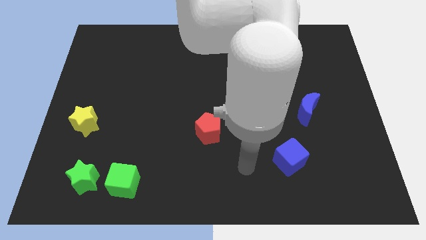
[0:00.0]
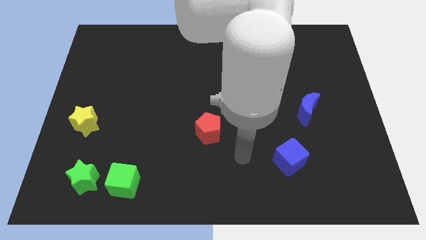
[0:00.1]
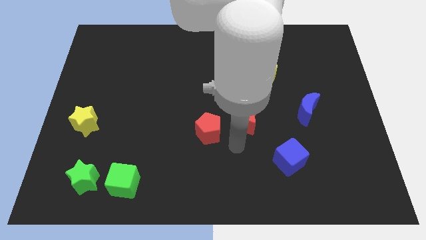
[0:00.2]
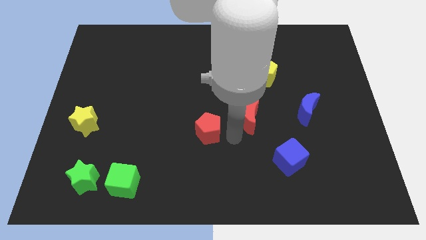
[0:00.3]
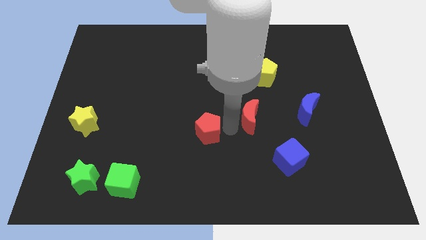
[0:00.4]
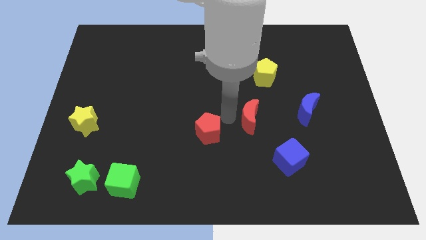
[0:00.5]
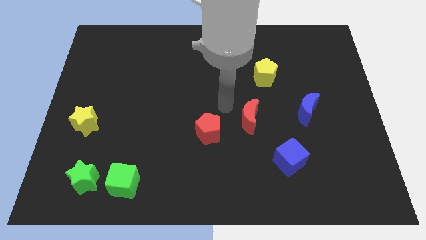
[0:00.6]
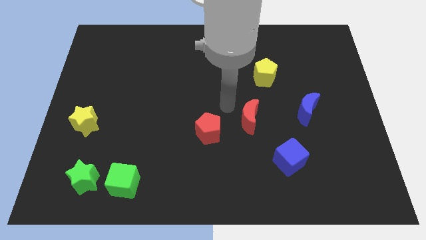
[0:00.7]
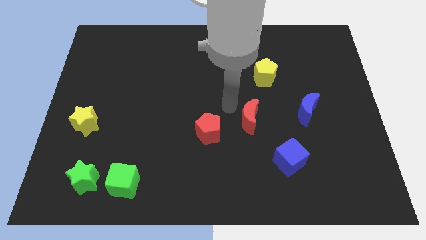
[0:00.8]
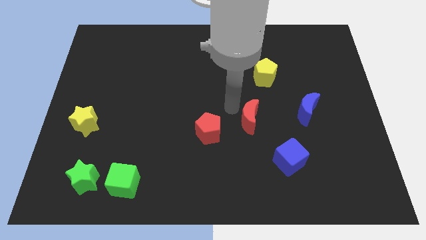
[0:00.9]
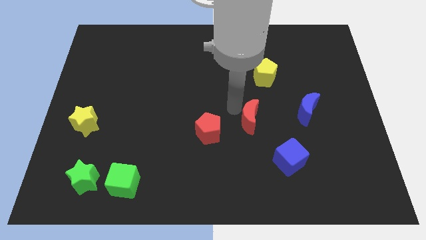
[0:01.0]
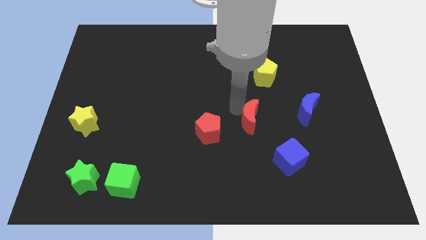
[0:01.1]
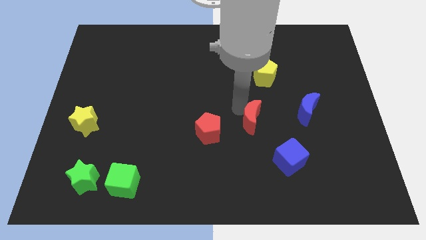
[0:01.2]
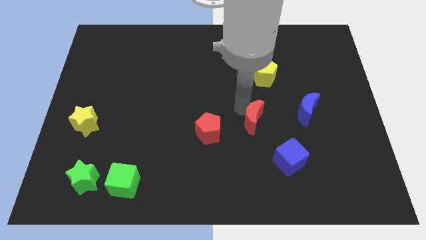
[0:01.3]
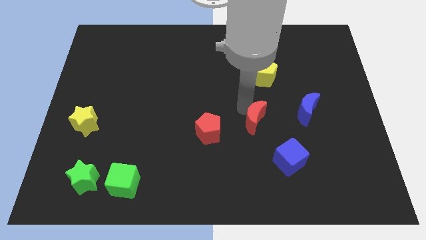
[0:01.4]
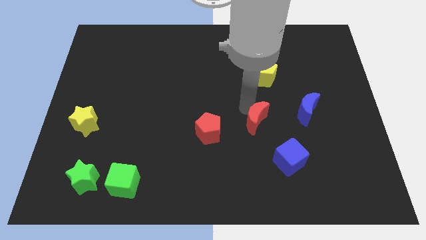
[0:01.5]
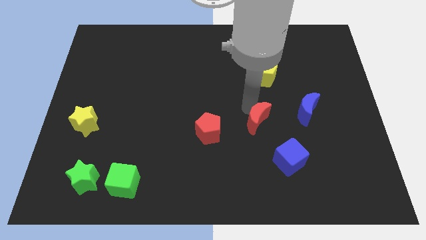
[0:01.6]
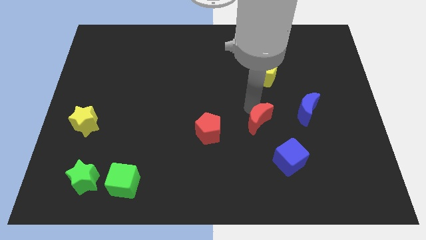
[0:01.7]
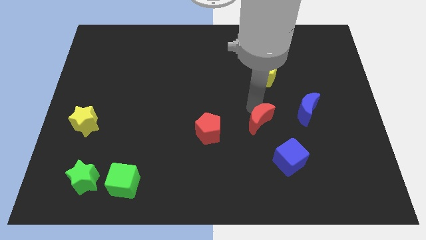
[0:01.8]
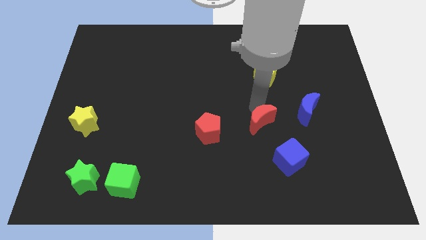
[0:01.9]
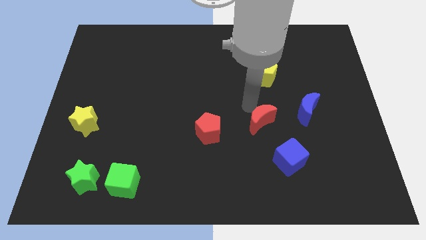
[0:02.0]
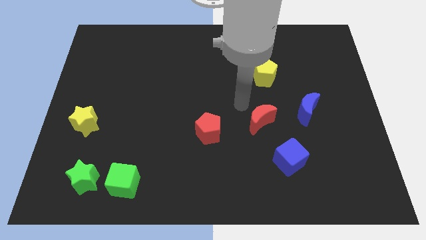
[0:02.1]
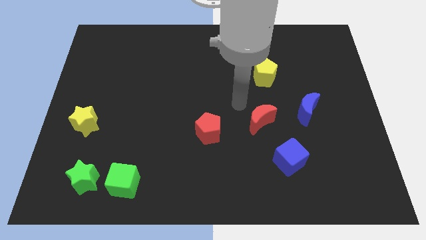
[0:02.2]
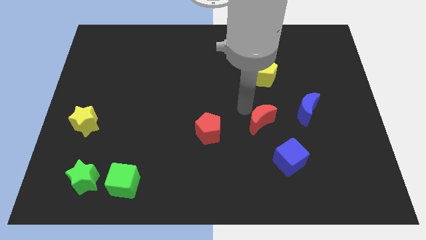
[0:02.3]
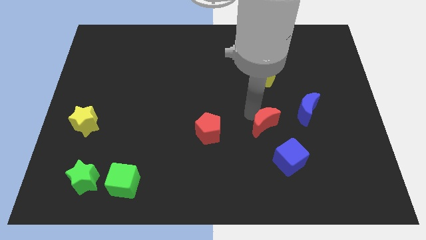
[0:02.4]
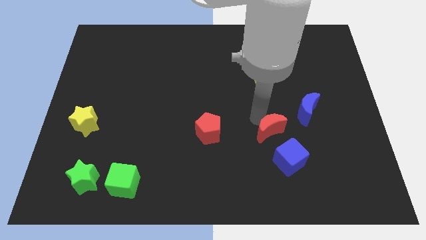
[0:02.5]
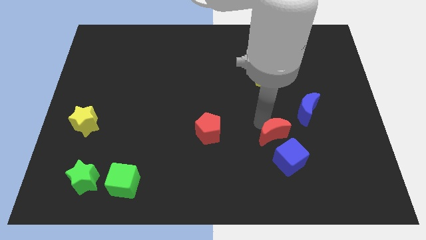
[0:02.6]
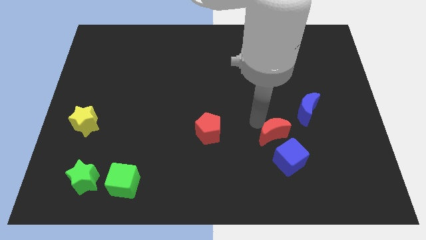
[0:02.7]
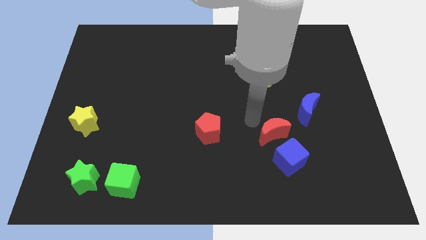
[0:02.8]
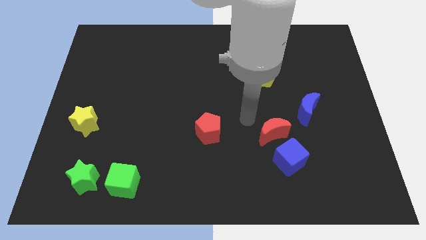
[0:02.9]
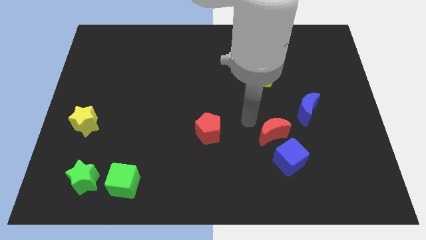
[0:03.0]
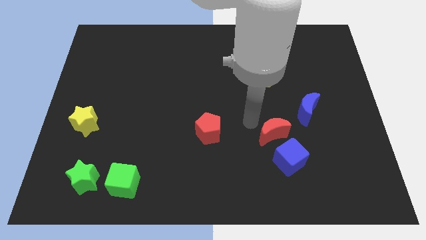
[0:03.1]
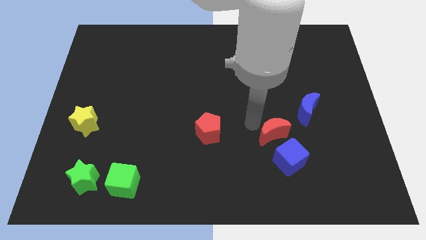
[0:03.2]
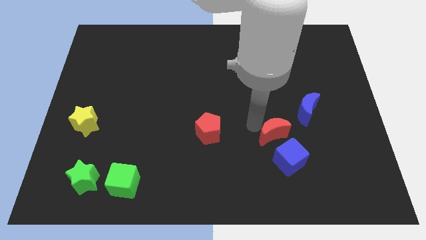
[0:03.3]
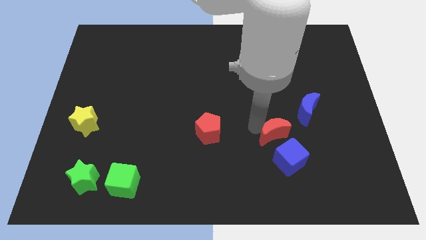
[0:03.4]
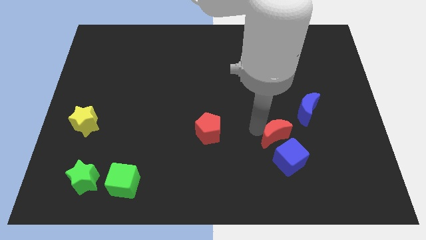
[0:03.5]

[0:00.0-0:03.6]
move the red moon somewhat downwards and then to the right

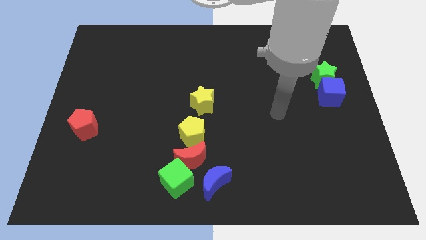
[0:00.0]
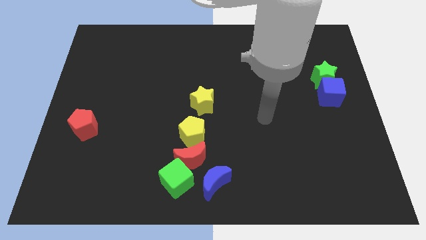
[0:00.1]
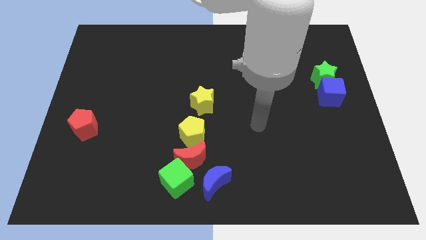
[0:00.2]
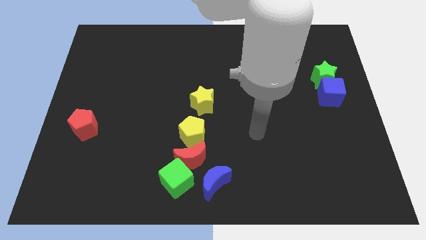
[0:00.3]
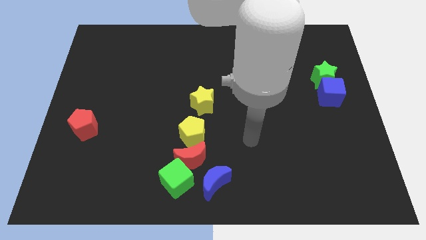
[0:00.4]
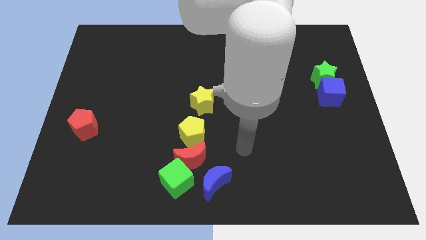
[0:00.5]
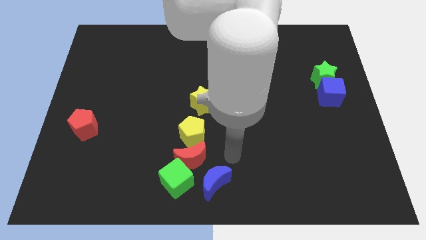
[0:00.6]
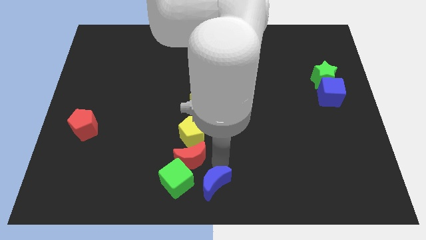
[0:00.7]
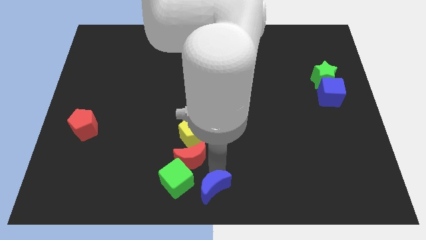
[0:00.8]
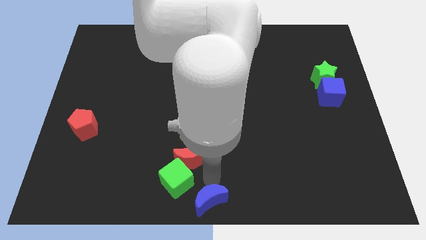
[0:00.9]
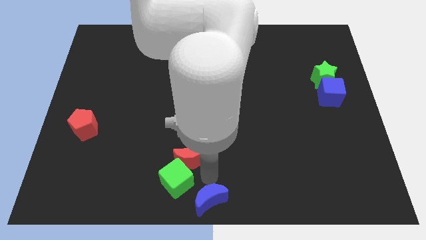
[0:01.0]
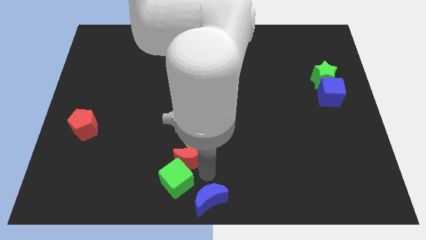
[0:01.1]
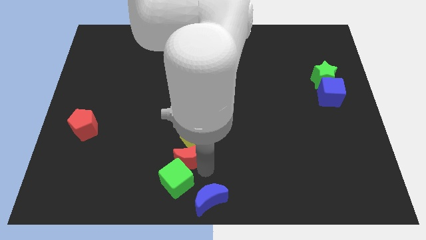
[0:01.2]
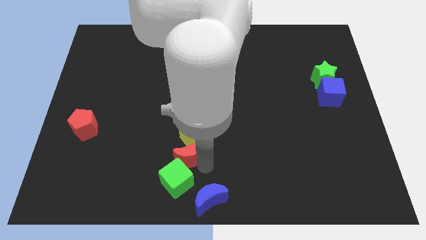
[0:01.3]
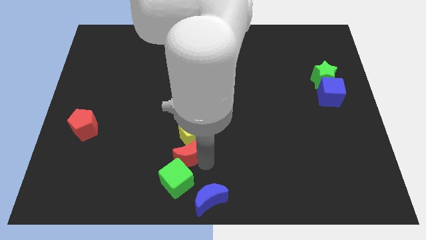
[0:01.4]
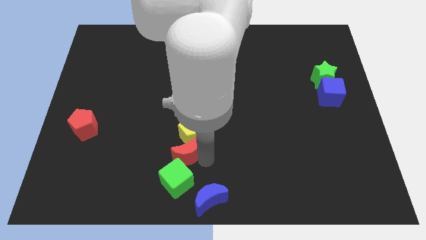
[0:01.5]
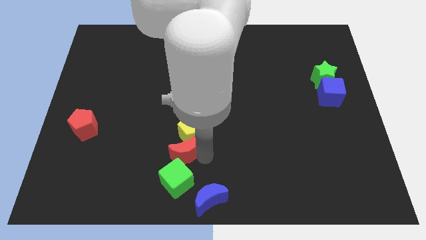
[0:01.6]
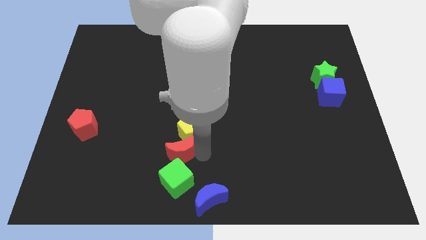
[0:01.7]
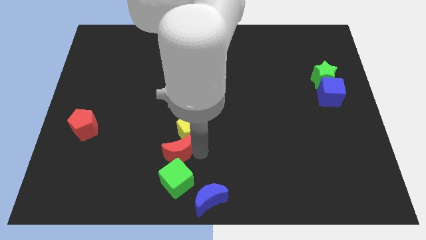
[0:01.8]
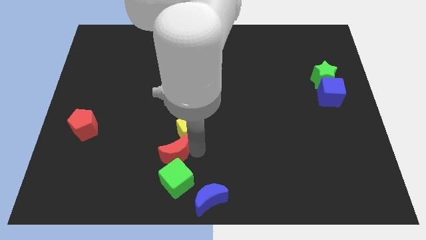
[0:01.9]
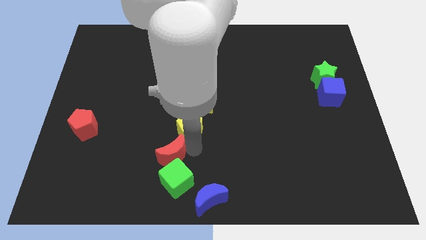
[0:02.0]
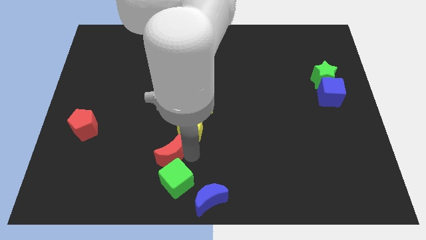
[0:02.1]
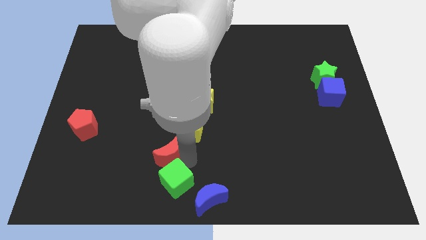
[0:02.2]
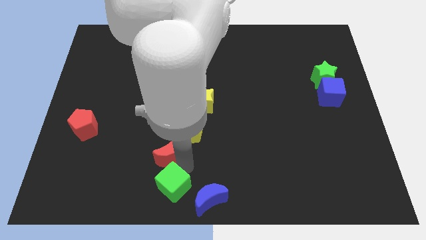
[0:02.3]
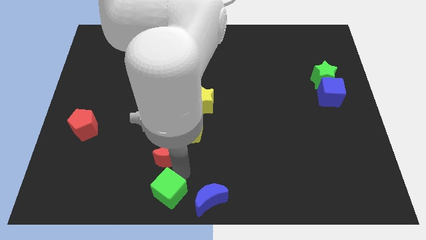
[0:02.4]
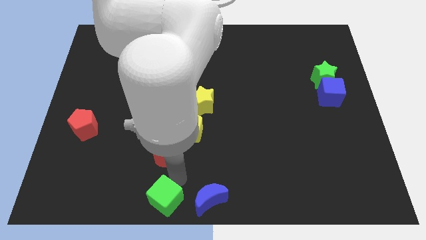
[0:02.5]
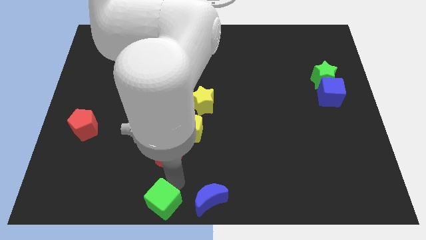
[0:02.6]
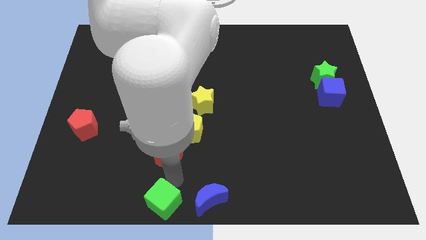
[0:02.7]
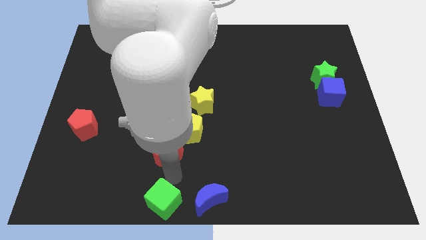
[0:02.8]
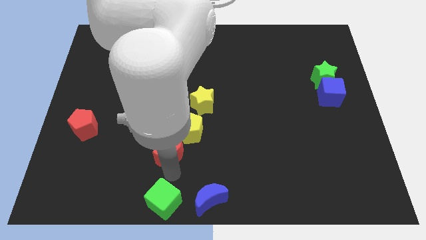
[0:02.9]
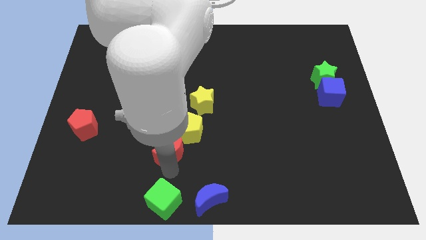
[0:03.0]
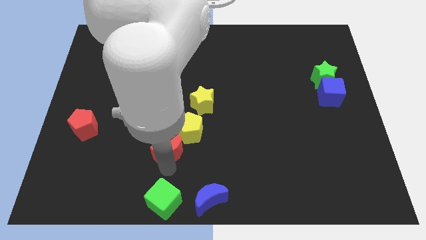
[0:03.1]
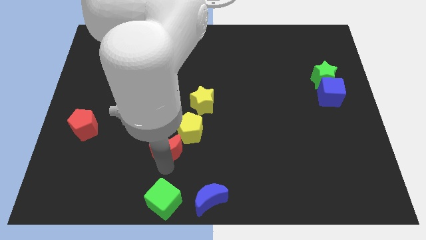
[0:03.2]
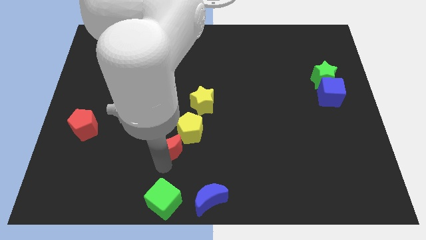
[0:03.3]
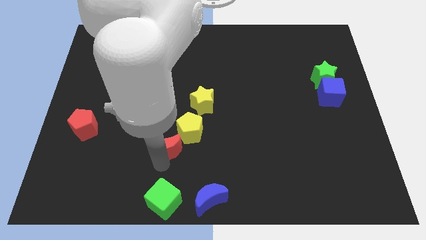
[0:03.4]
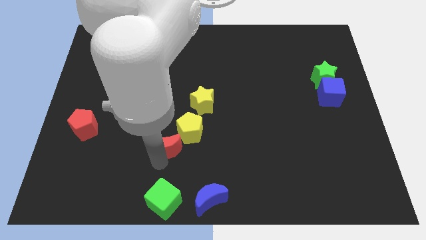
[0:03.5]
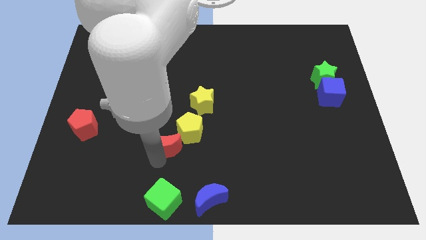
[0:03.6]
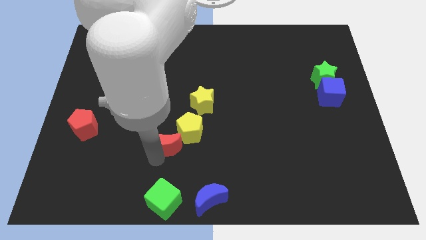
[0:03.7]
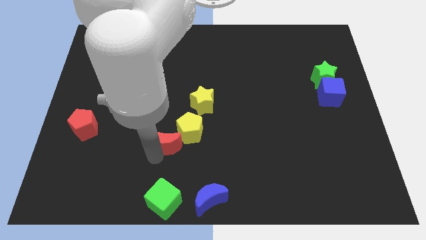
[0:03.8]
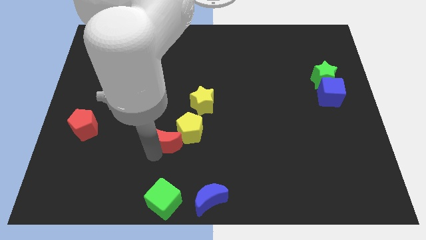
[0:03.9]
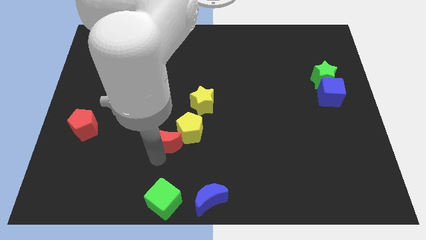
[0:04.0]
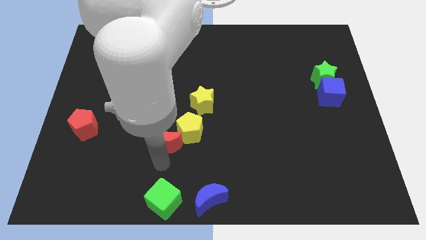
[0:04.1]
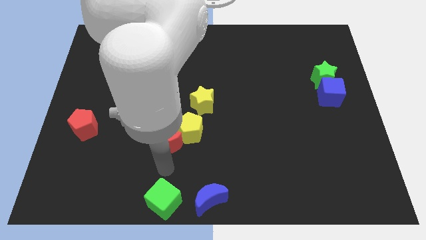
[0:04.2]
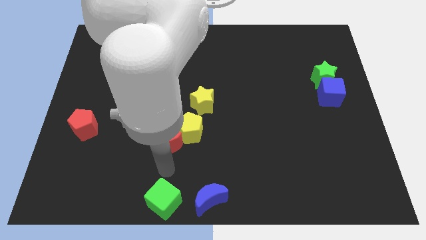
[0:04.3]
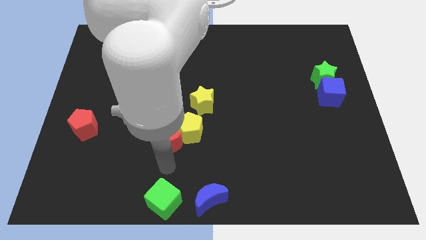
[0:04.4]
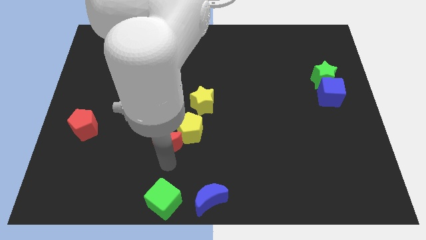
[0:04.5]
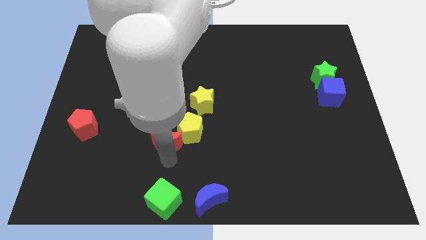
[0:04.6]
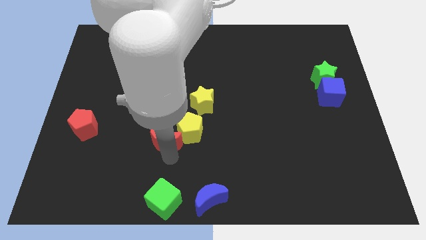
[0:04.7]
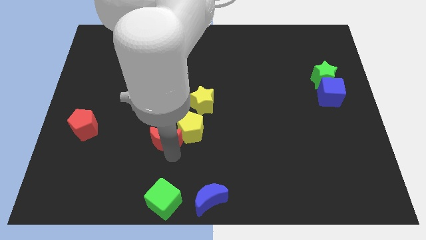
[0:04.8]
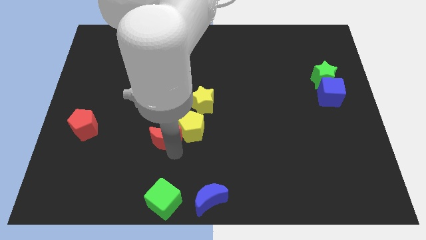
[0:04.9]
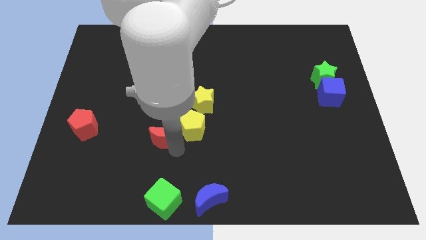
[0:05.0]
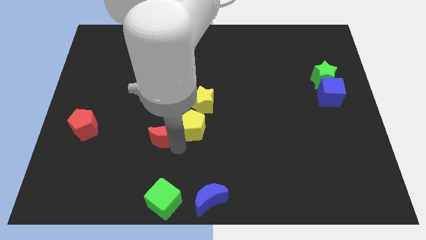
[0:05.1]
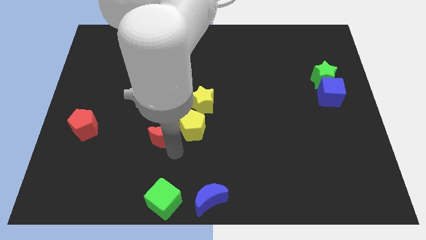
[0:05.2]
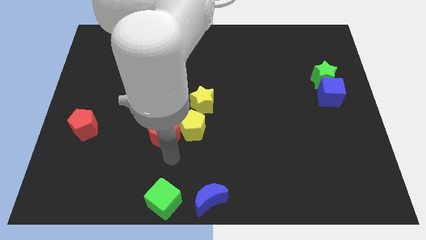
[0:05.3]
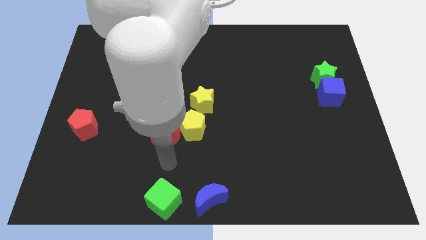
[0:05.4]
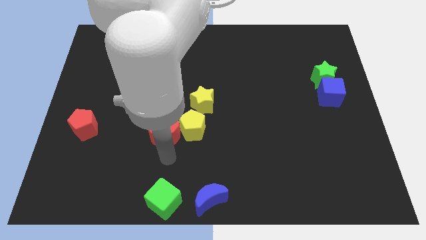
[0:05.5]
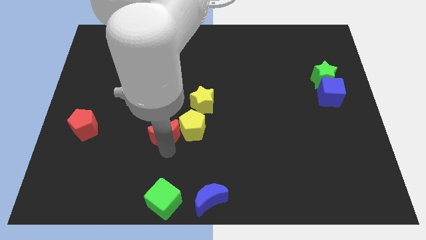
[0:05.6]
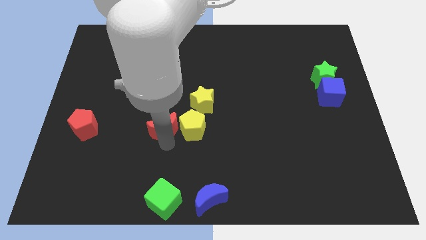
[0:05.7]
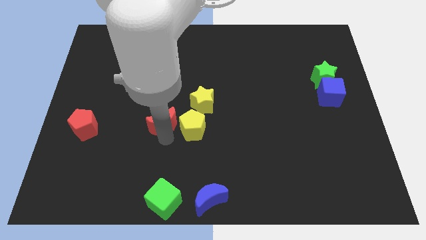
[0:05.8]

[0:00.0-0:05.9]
move the red moon somewhat up
